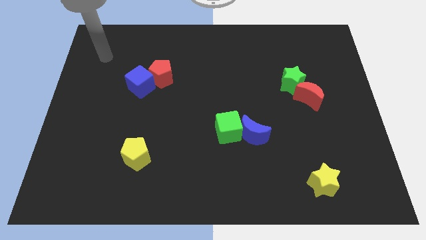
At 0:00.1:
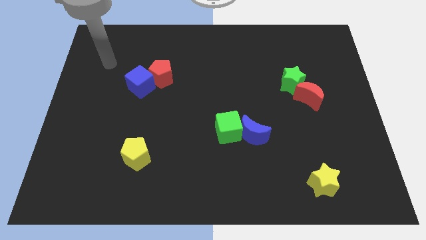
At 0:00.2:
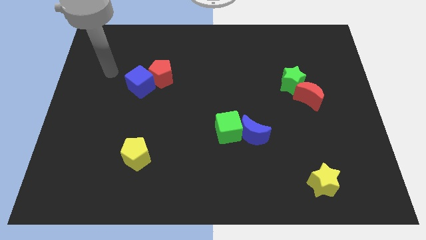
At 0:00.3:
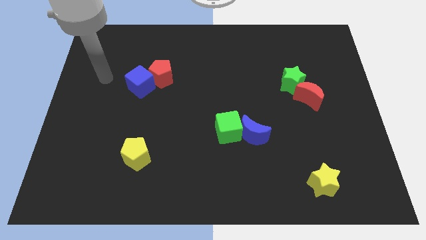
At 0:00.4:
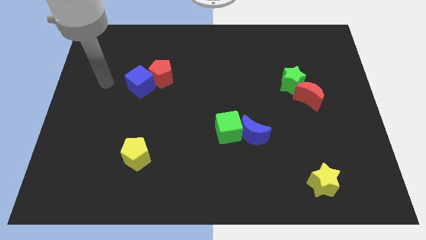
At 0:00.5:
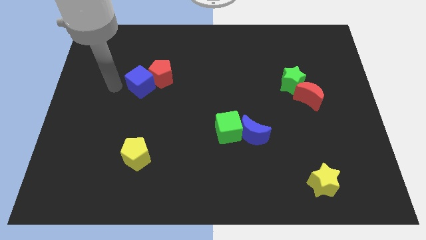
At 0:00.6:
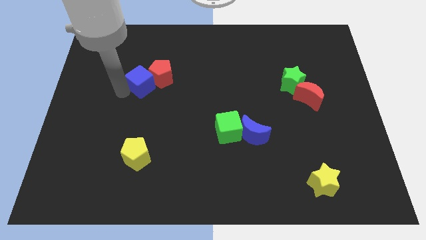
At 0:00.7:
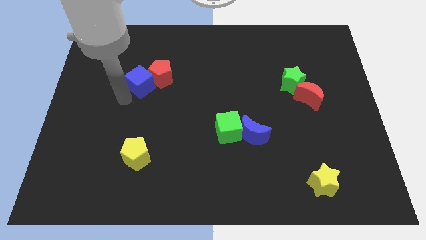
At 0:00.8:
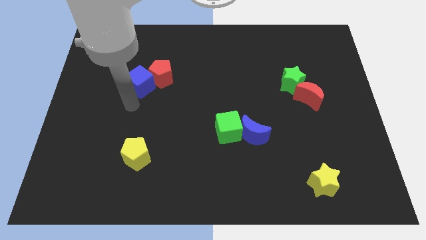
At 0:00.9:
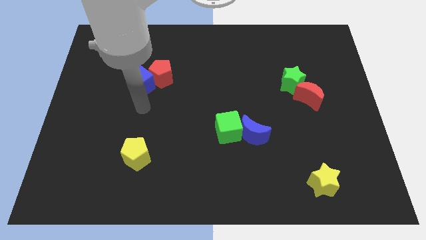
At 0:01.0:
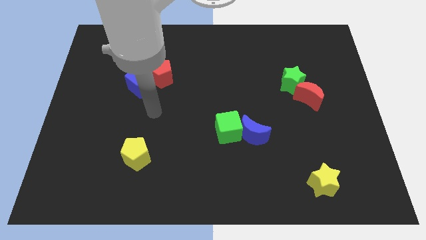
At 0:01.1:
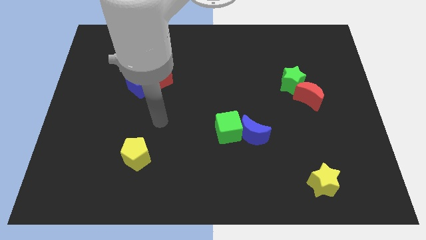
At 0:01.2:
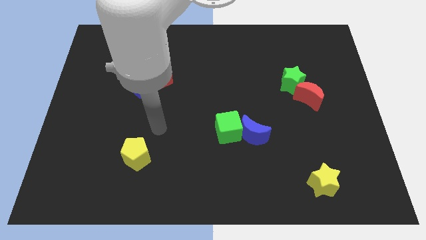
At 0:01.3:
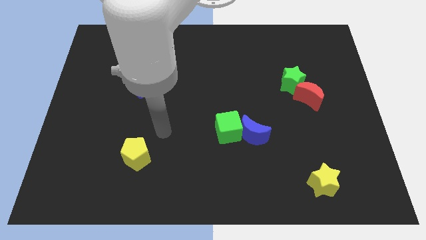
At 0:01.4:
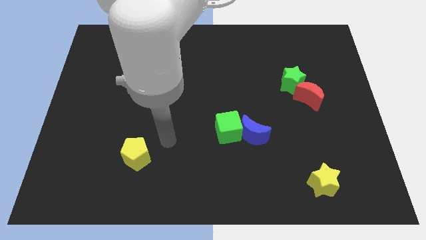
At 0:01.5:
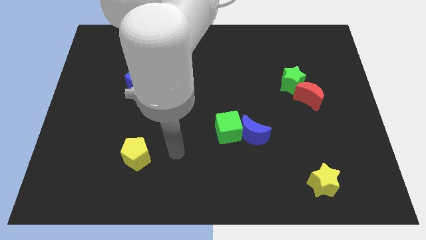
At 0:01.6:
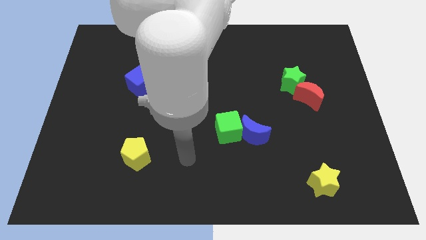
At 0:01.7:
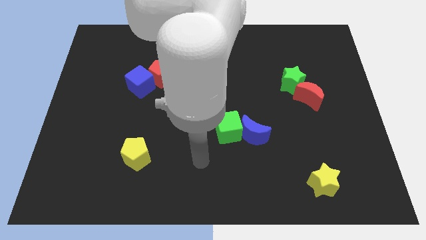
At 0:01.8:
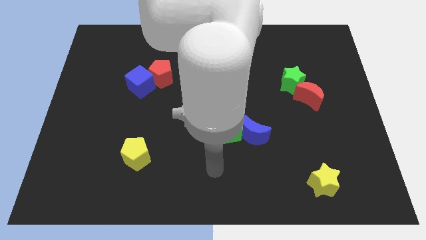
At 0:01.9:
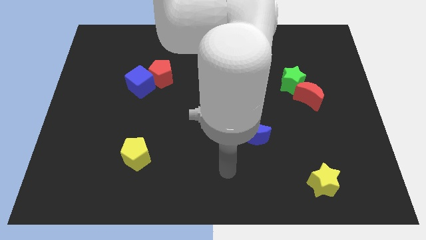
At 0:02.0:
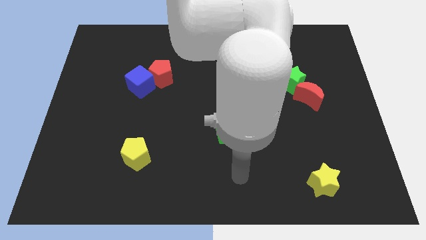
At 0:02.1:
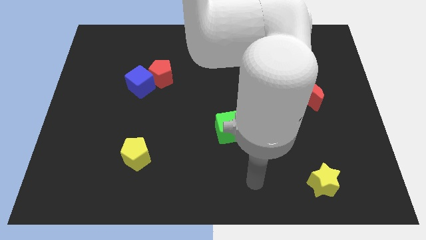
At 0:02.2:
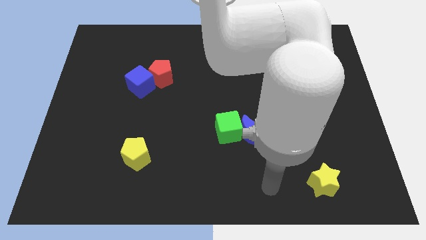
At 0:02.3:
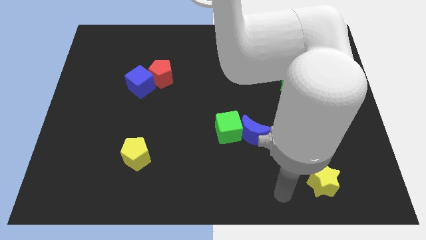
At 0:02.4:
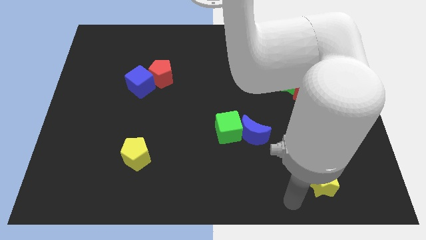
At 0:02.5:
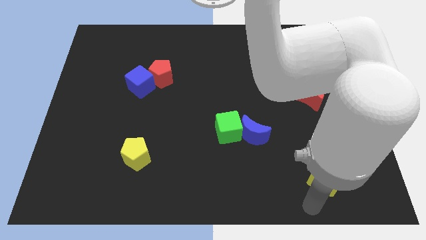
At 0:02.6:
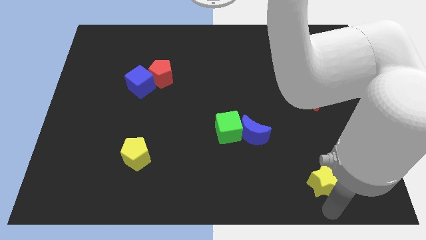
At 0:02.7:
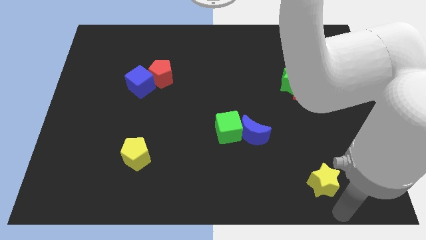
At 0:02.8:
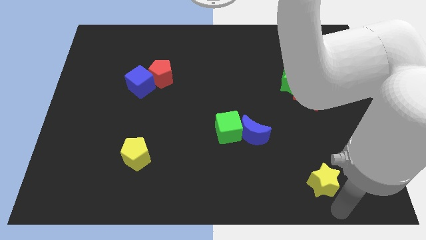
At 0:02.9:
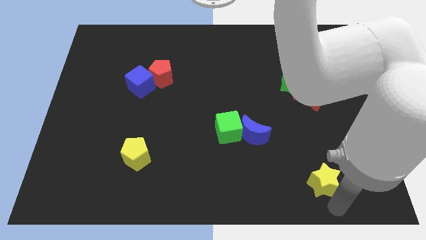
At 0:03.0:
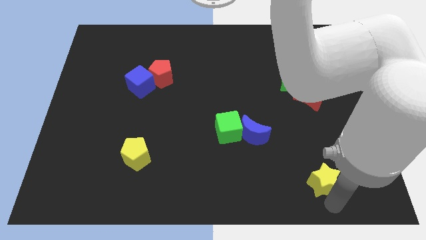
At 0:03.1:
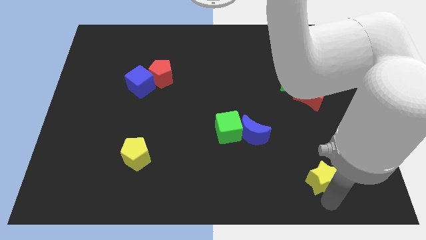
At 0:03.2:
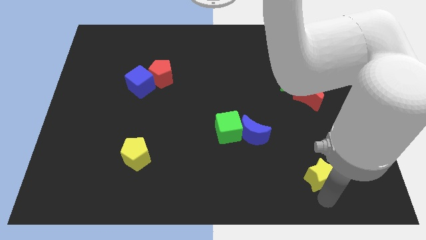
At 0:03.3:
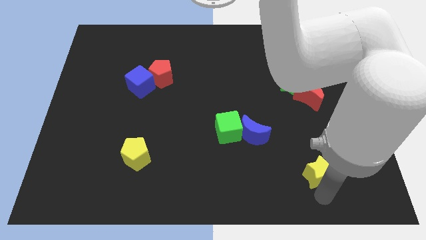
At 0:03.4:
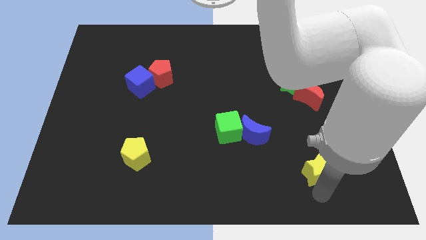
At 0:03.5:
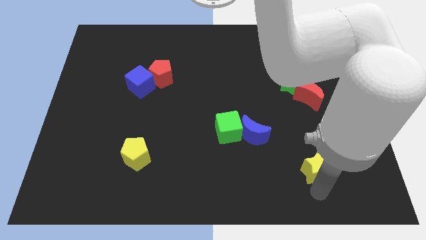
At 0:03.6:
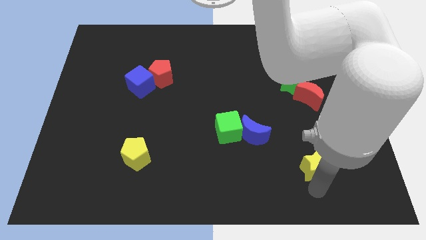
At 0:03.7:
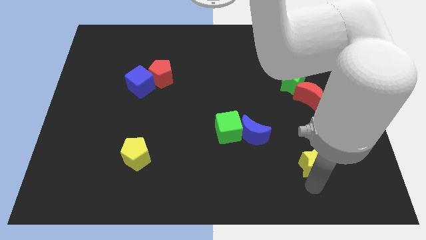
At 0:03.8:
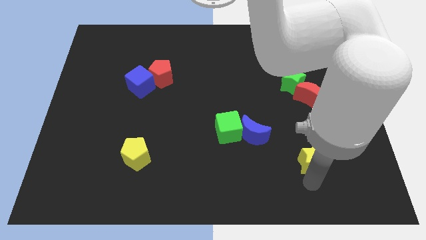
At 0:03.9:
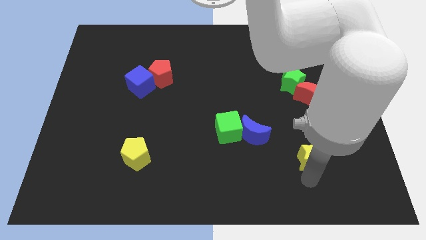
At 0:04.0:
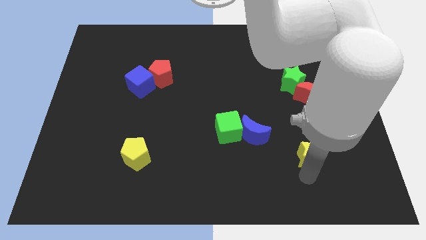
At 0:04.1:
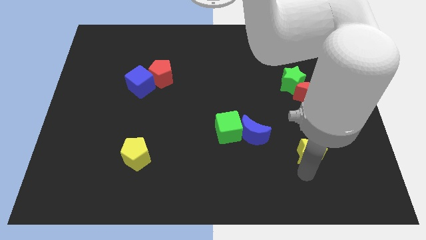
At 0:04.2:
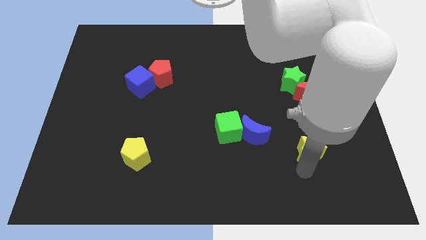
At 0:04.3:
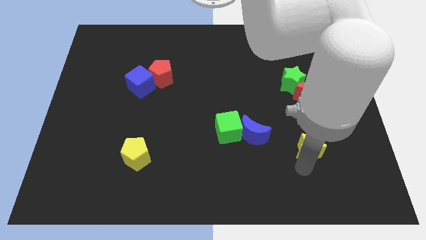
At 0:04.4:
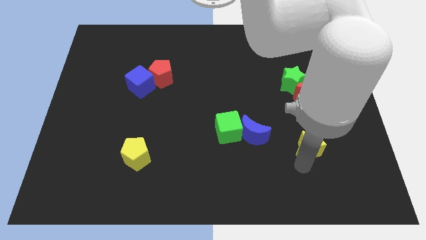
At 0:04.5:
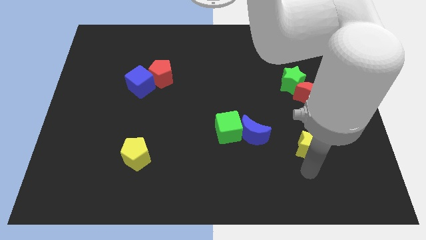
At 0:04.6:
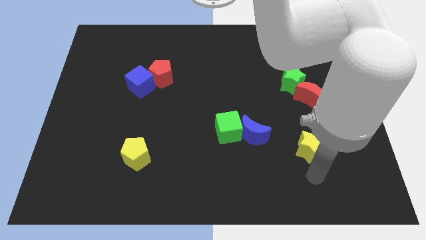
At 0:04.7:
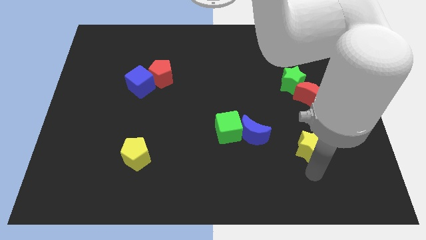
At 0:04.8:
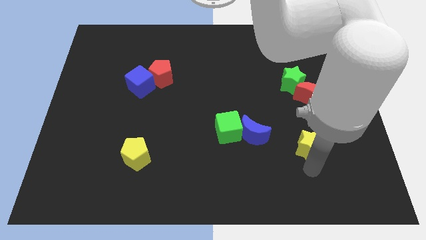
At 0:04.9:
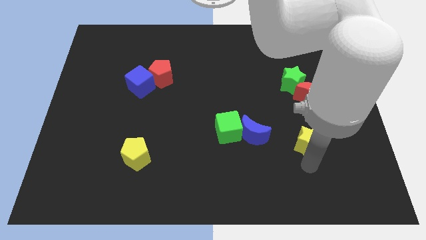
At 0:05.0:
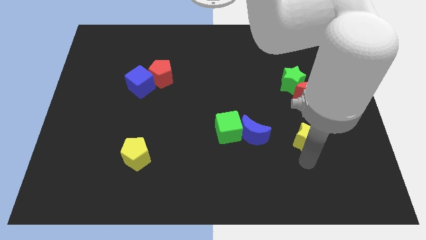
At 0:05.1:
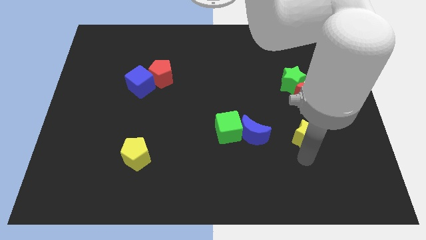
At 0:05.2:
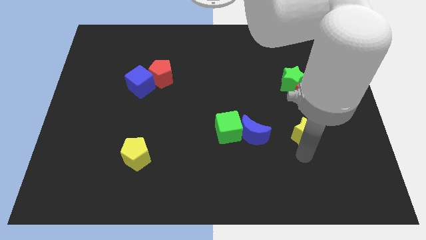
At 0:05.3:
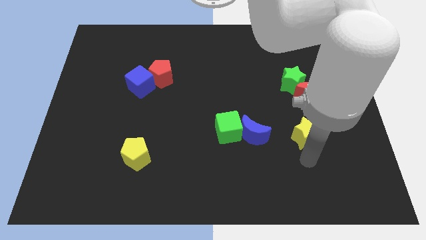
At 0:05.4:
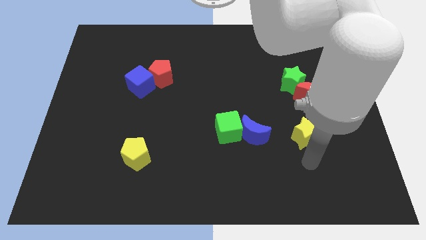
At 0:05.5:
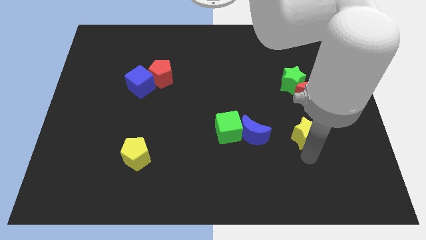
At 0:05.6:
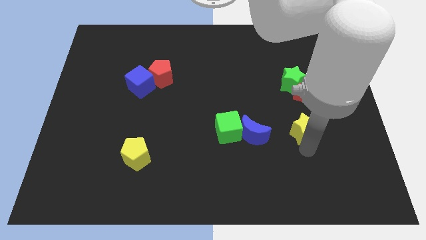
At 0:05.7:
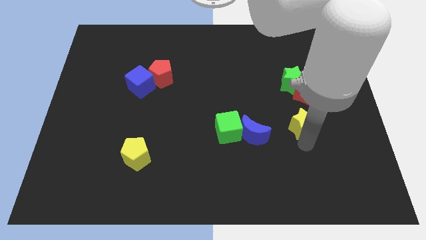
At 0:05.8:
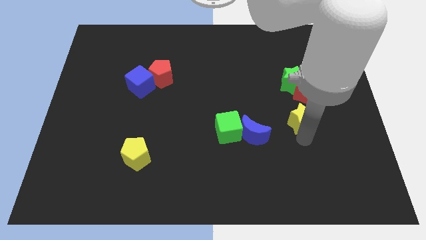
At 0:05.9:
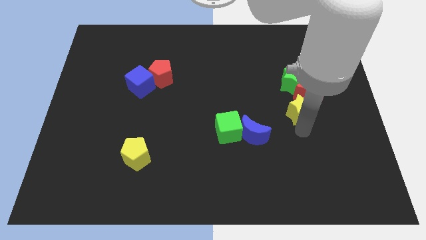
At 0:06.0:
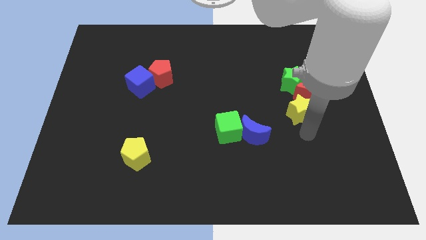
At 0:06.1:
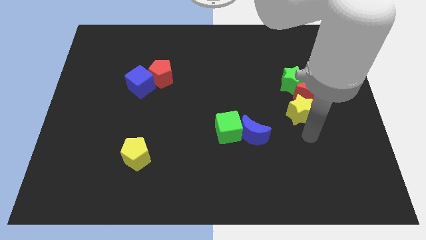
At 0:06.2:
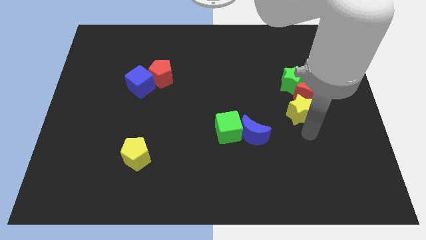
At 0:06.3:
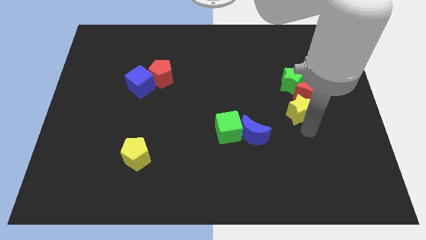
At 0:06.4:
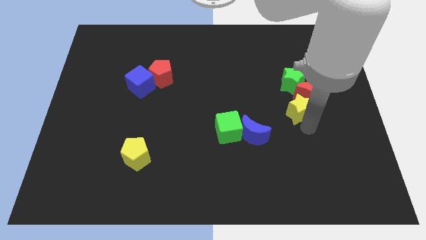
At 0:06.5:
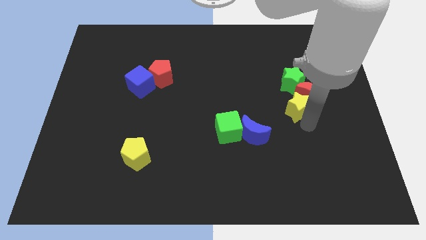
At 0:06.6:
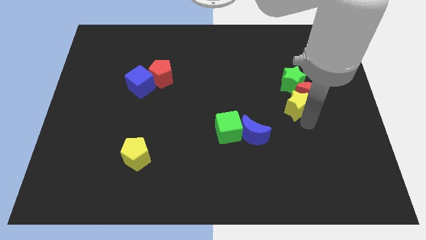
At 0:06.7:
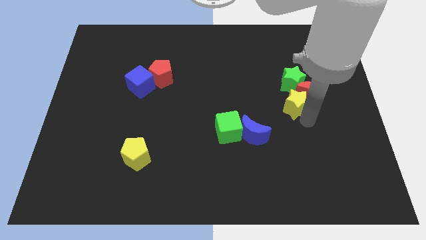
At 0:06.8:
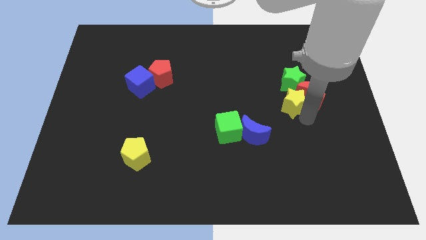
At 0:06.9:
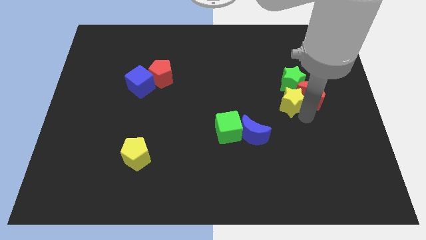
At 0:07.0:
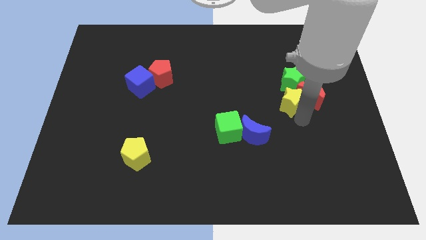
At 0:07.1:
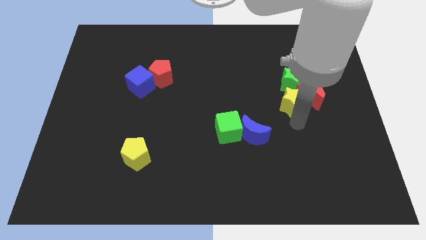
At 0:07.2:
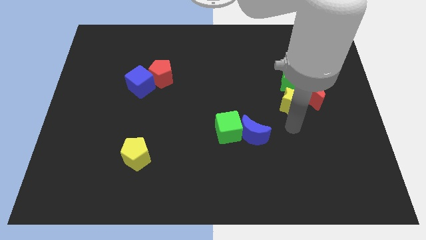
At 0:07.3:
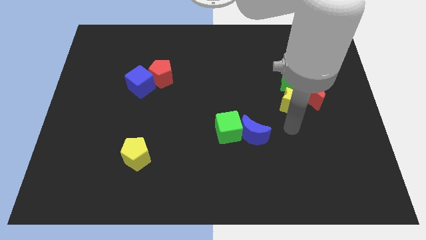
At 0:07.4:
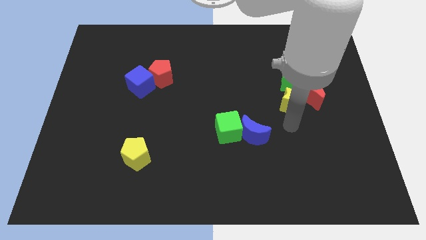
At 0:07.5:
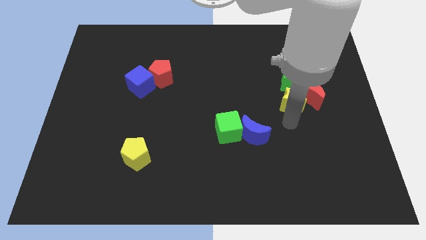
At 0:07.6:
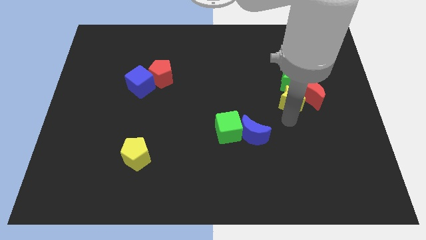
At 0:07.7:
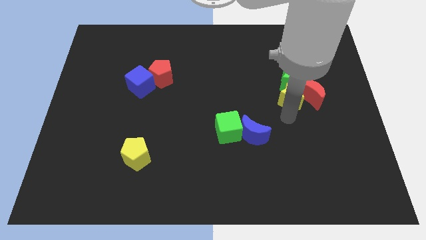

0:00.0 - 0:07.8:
move the yellow star to the green star

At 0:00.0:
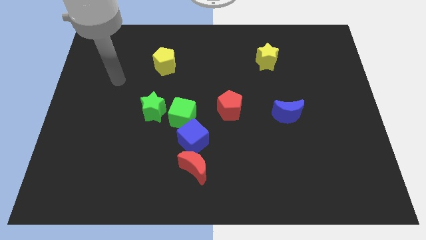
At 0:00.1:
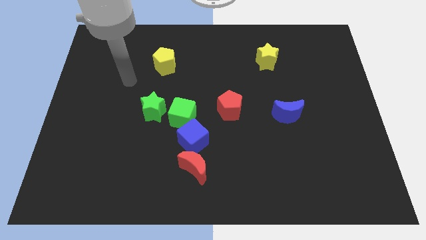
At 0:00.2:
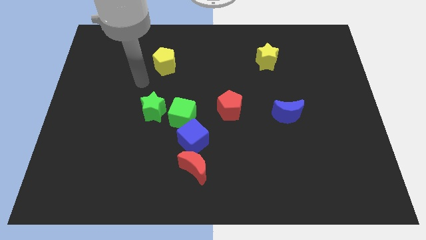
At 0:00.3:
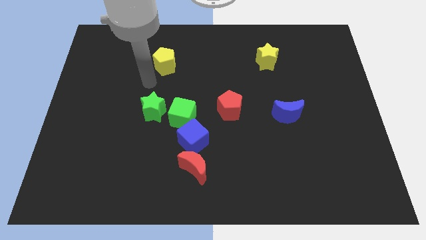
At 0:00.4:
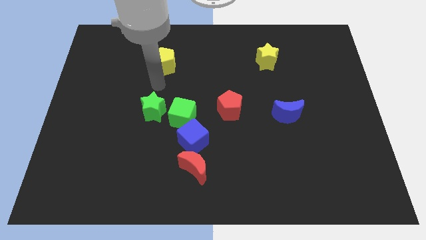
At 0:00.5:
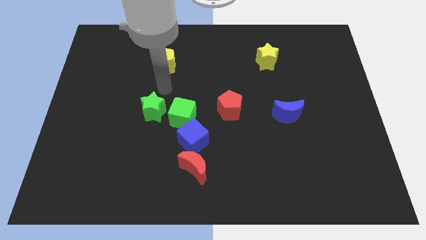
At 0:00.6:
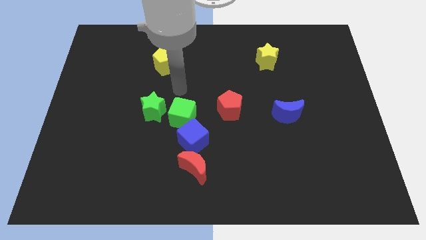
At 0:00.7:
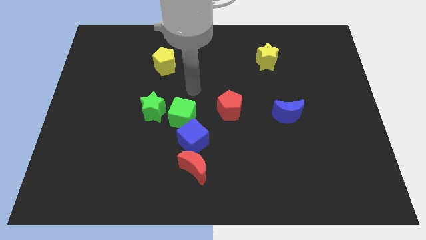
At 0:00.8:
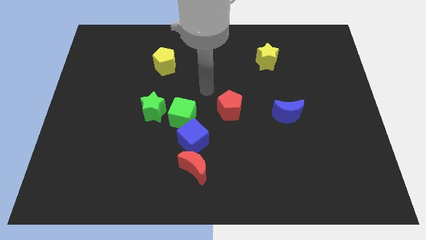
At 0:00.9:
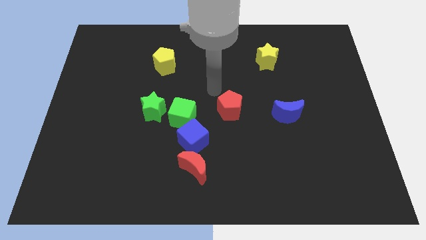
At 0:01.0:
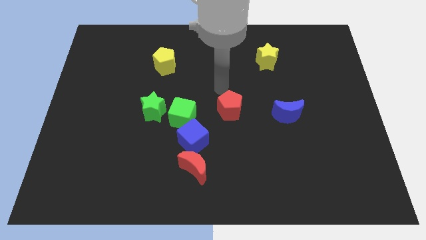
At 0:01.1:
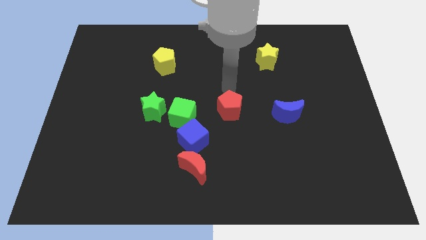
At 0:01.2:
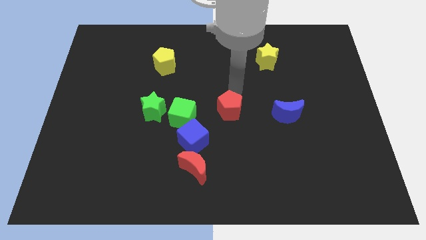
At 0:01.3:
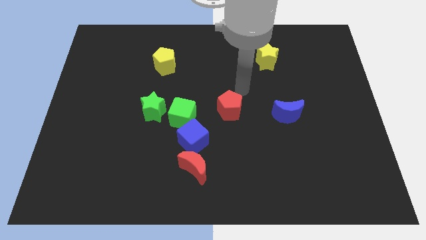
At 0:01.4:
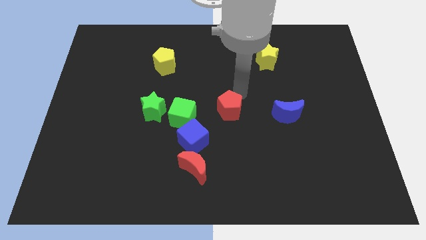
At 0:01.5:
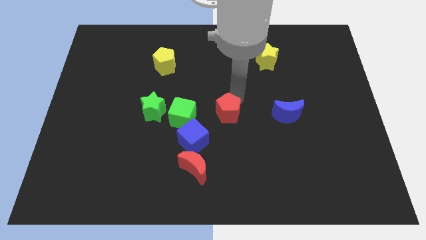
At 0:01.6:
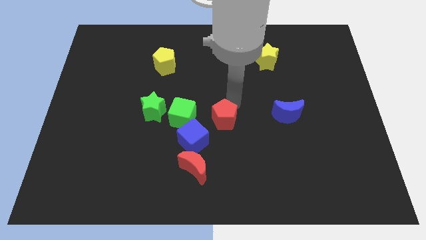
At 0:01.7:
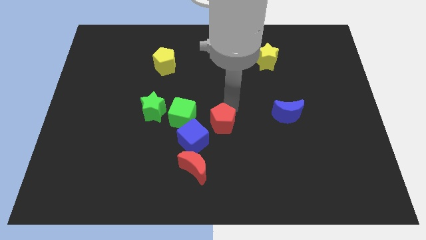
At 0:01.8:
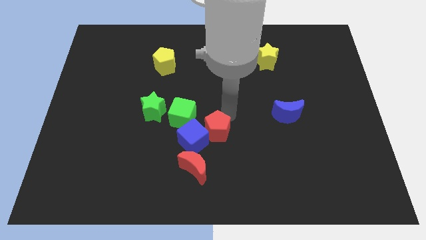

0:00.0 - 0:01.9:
slide the red pentagon close to the blue cube
